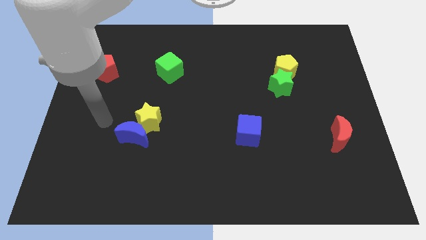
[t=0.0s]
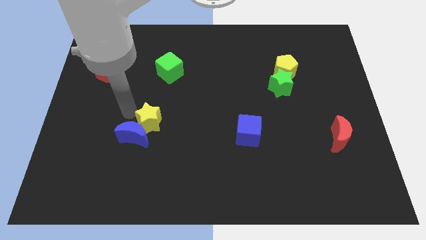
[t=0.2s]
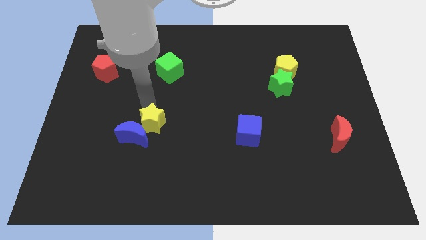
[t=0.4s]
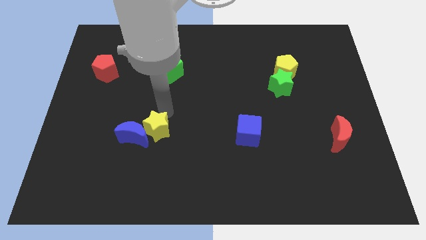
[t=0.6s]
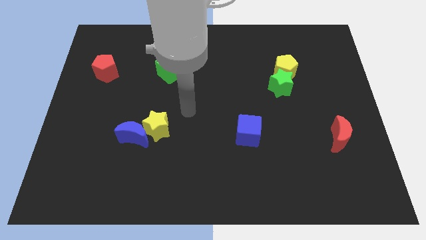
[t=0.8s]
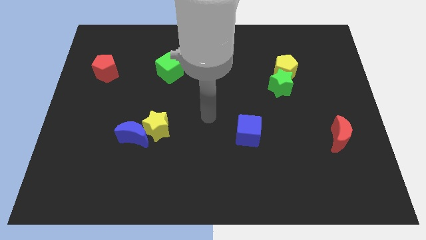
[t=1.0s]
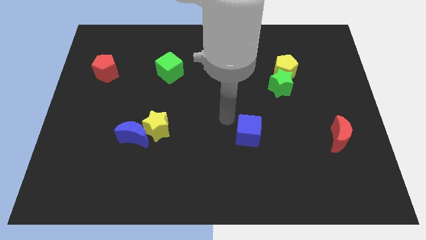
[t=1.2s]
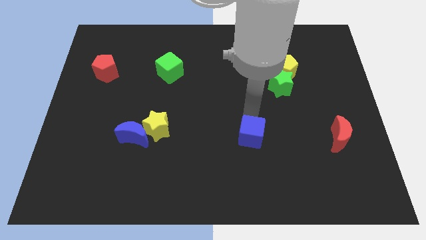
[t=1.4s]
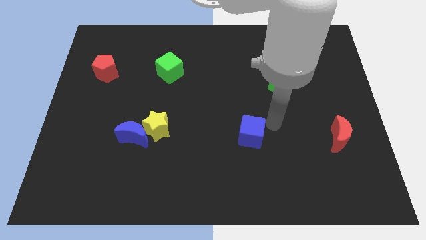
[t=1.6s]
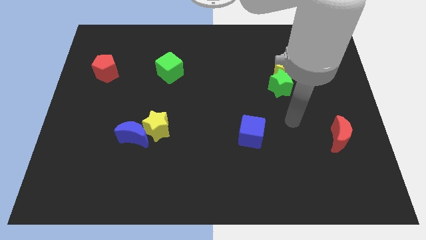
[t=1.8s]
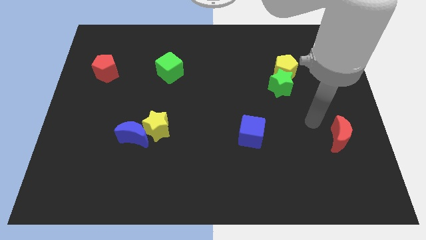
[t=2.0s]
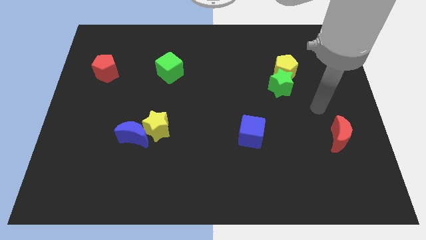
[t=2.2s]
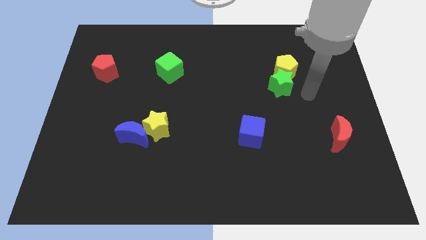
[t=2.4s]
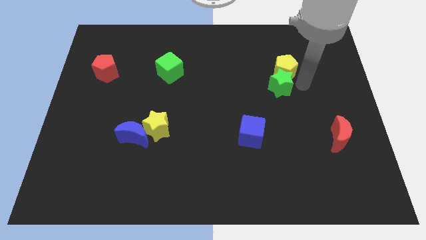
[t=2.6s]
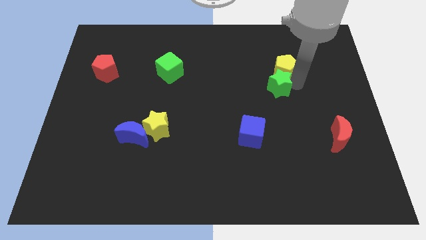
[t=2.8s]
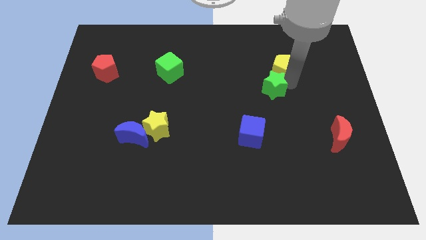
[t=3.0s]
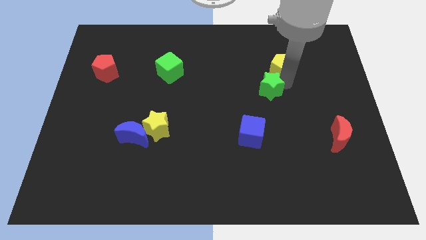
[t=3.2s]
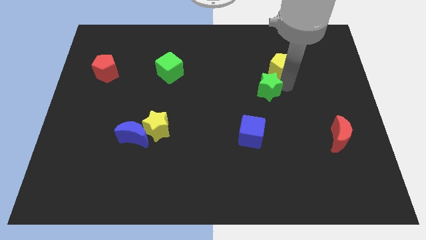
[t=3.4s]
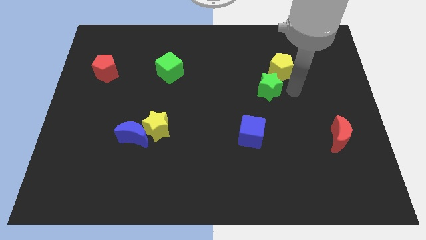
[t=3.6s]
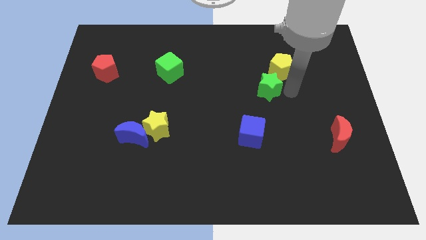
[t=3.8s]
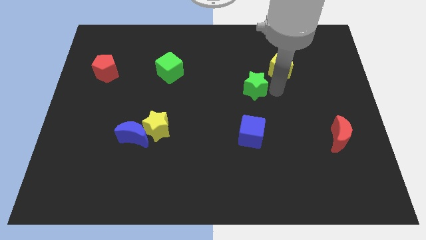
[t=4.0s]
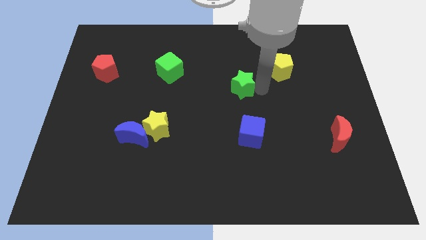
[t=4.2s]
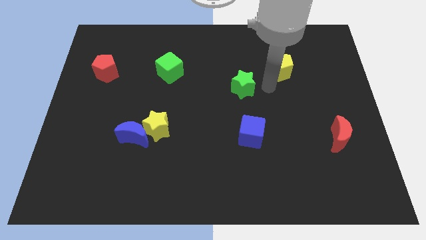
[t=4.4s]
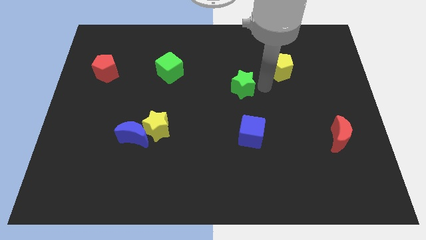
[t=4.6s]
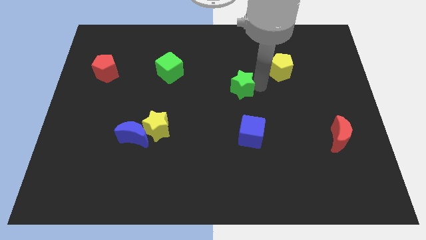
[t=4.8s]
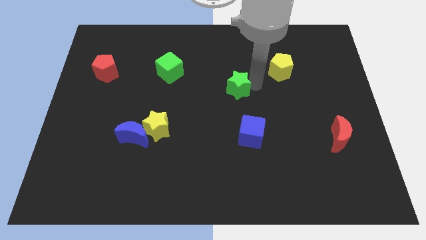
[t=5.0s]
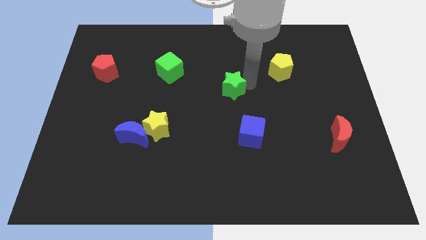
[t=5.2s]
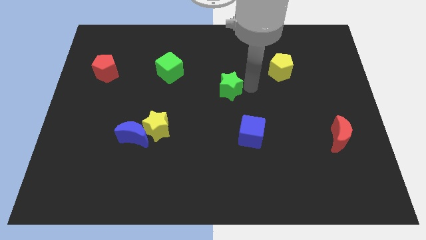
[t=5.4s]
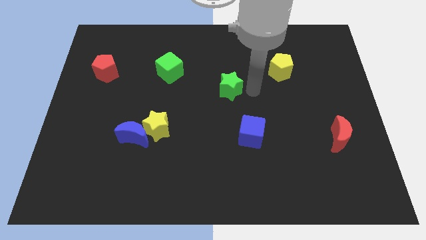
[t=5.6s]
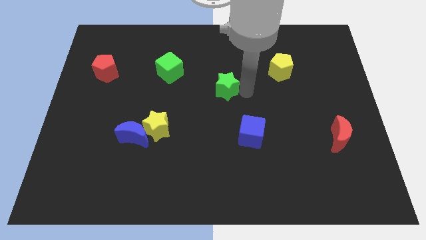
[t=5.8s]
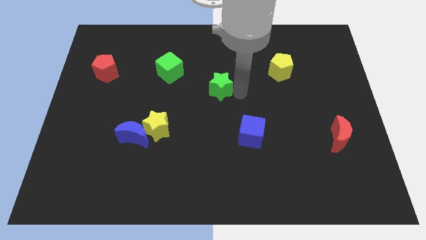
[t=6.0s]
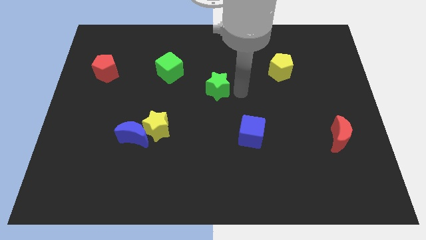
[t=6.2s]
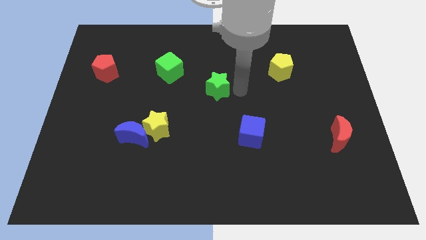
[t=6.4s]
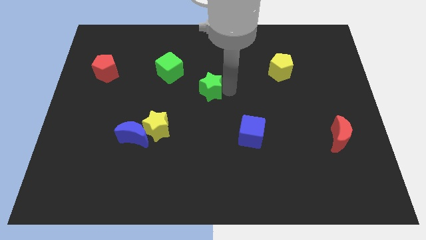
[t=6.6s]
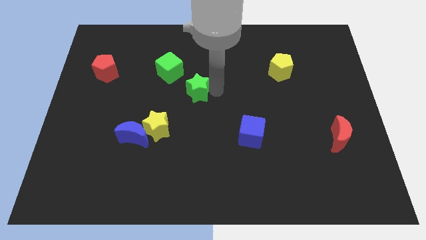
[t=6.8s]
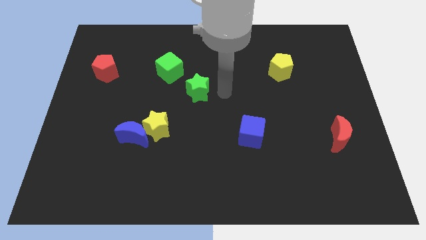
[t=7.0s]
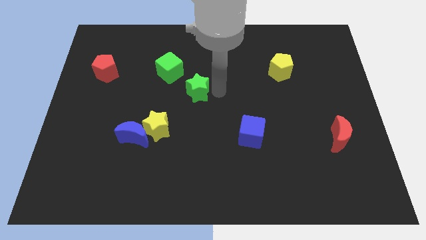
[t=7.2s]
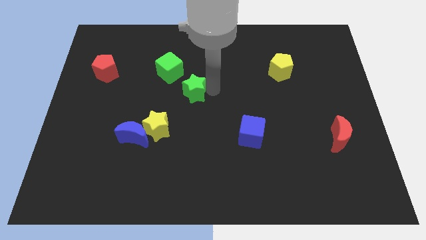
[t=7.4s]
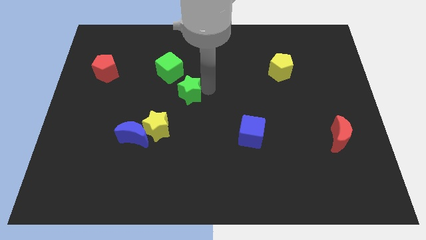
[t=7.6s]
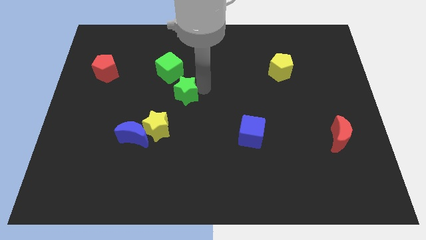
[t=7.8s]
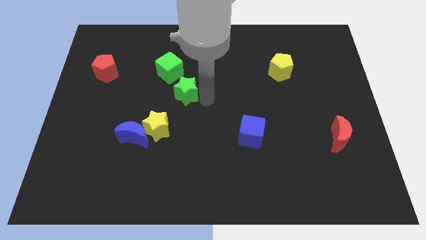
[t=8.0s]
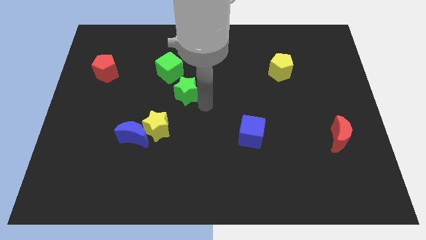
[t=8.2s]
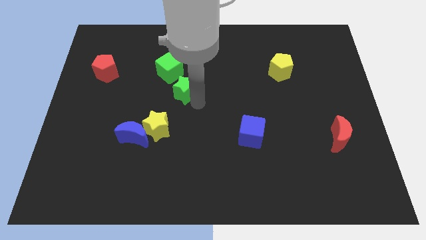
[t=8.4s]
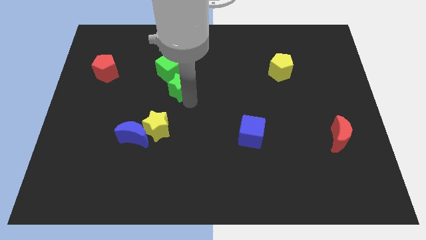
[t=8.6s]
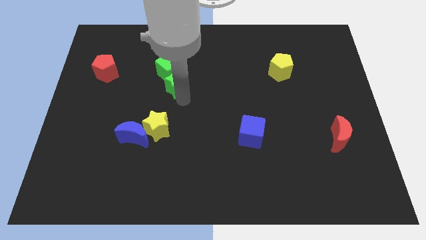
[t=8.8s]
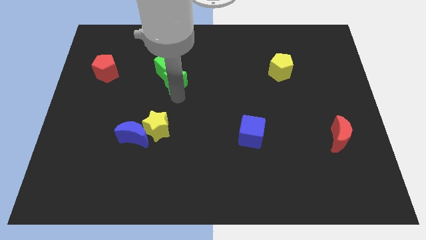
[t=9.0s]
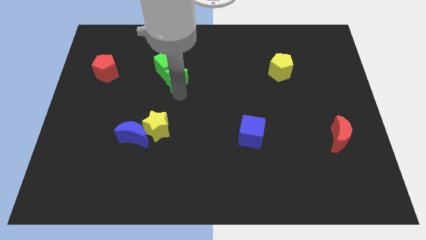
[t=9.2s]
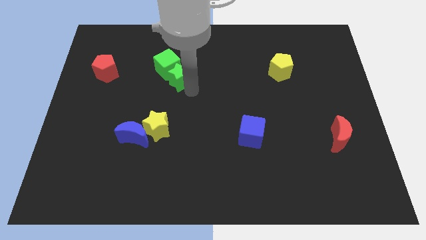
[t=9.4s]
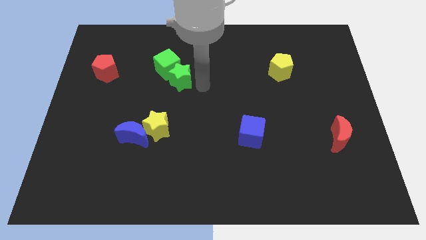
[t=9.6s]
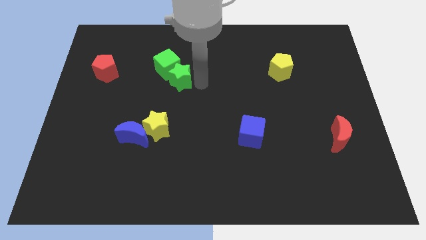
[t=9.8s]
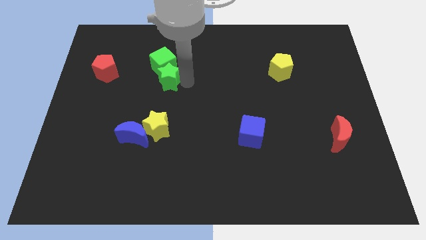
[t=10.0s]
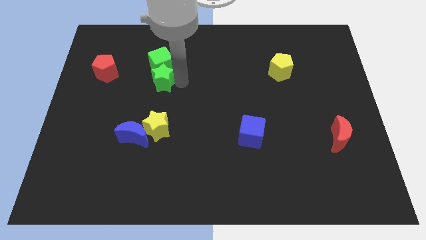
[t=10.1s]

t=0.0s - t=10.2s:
push the green star to the right side of the red pentagon

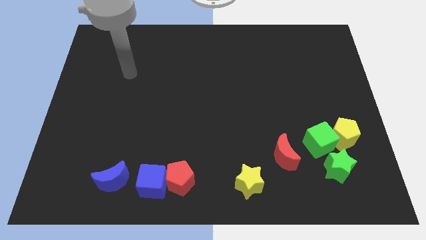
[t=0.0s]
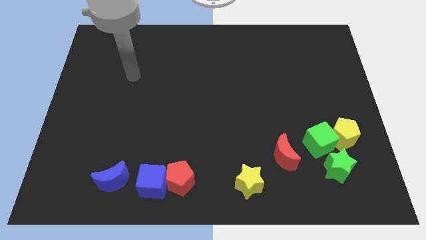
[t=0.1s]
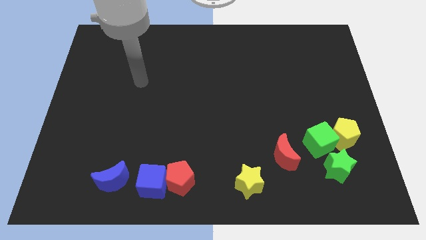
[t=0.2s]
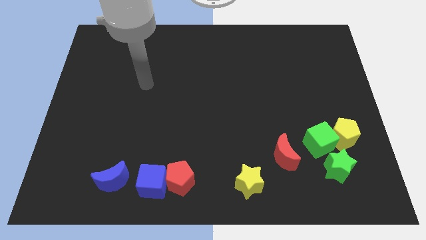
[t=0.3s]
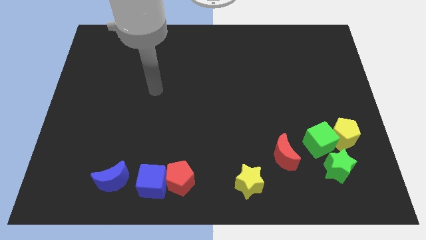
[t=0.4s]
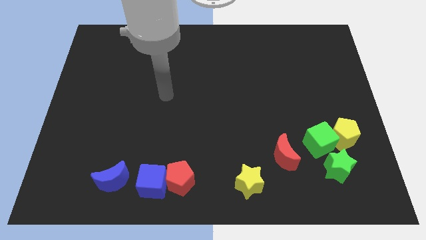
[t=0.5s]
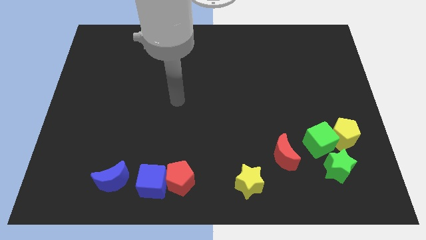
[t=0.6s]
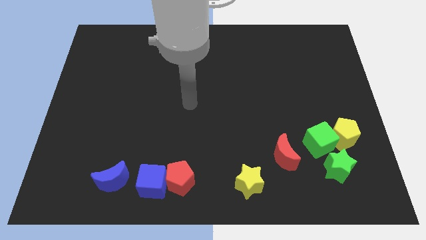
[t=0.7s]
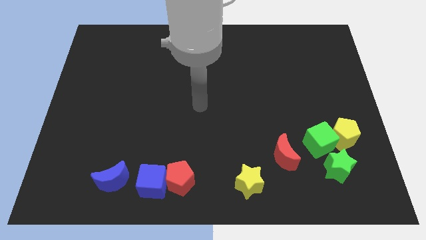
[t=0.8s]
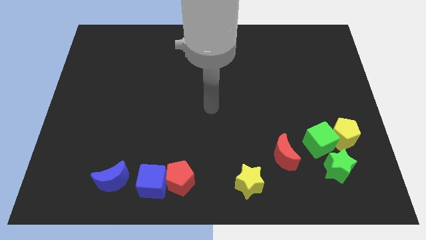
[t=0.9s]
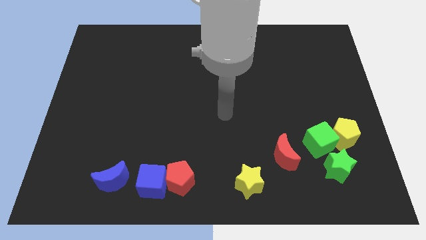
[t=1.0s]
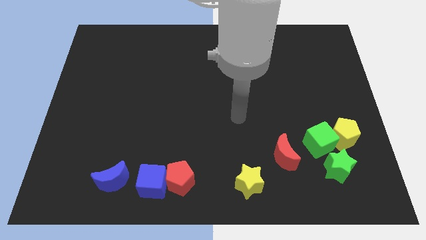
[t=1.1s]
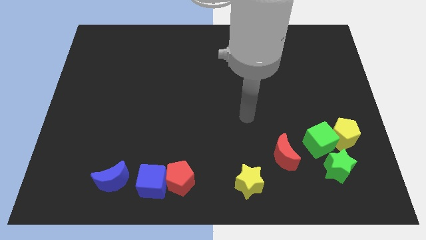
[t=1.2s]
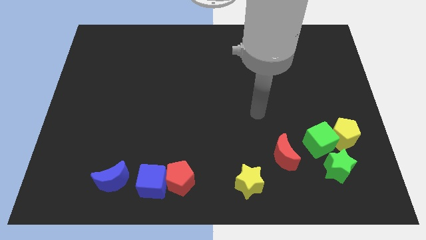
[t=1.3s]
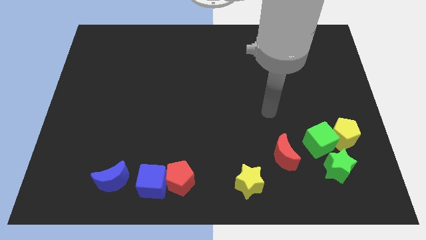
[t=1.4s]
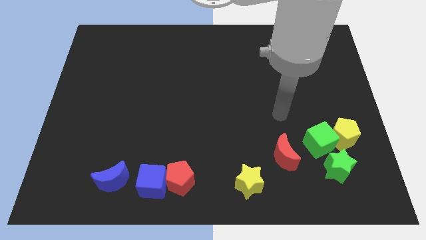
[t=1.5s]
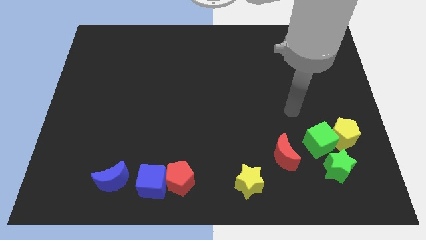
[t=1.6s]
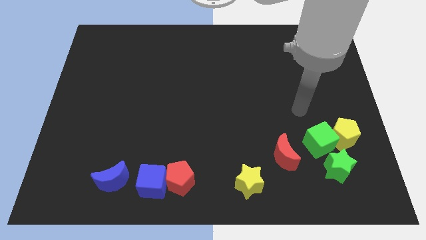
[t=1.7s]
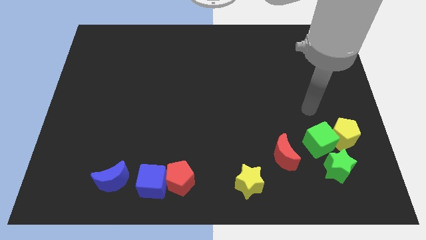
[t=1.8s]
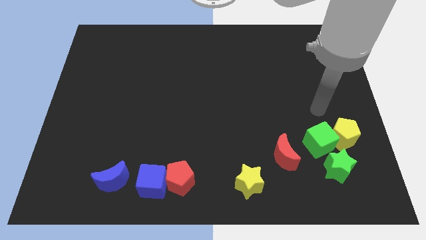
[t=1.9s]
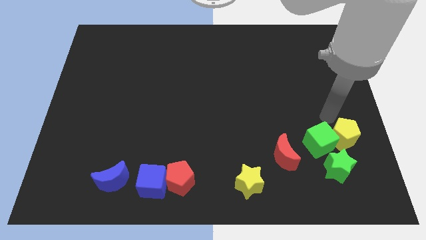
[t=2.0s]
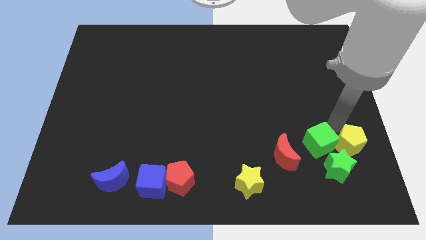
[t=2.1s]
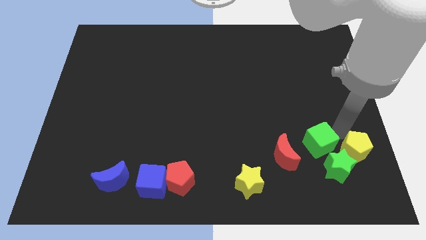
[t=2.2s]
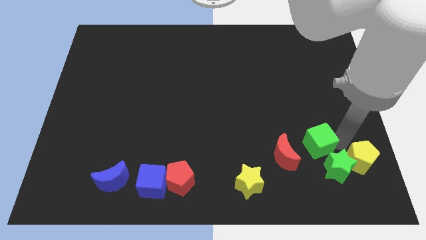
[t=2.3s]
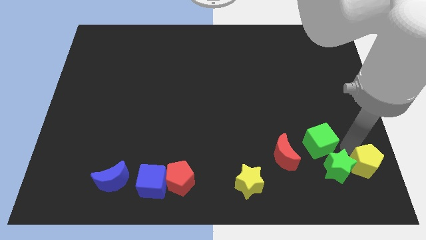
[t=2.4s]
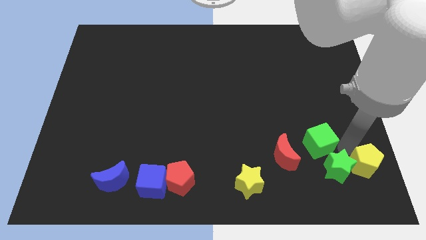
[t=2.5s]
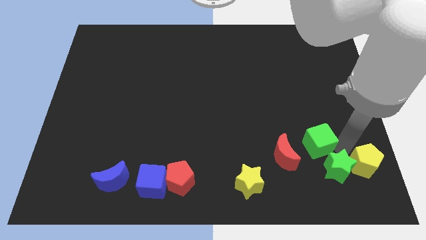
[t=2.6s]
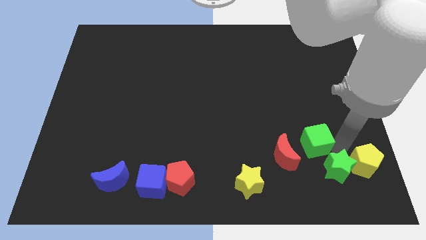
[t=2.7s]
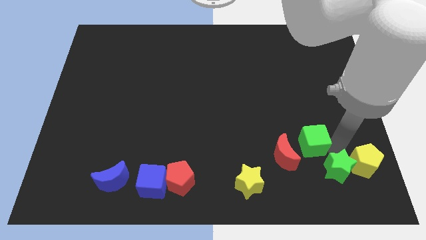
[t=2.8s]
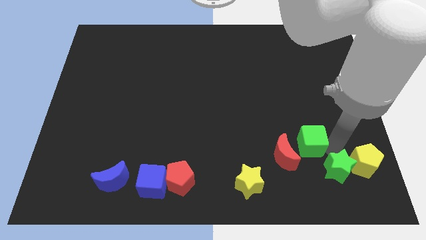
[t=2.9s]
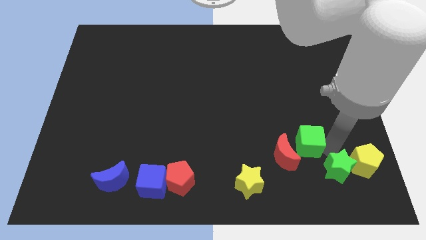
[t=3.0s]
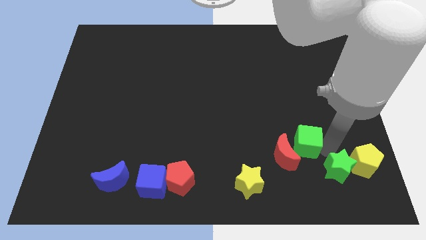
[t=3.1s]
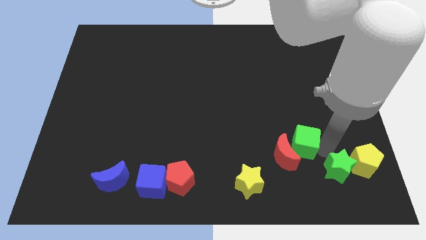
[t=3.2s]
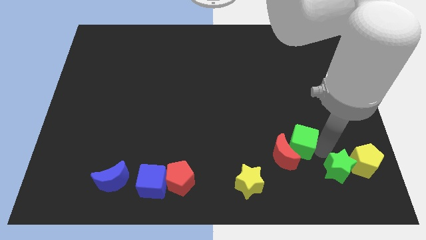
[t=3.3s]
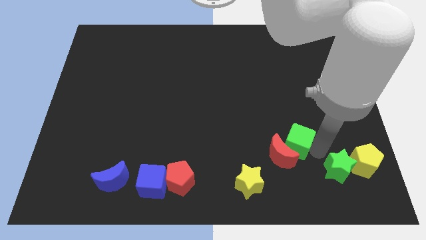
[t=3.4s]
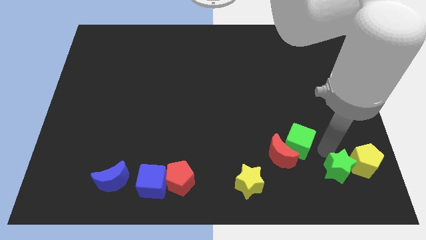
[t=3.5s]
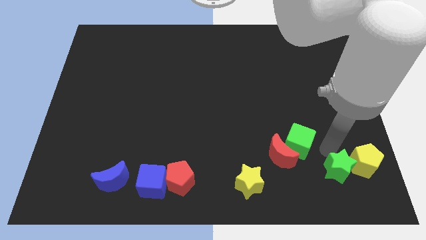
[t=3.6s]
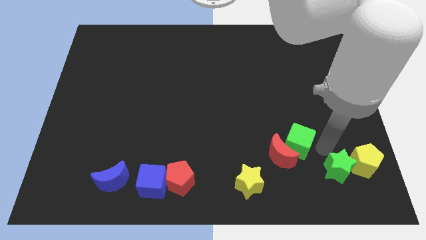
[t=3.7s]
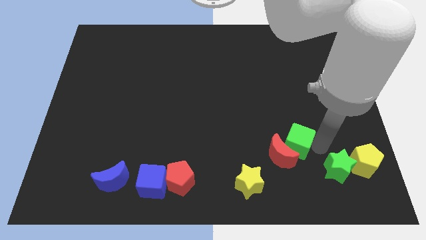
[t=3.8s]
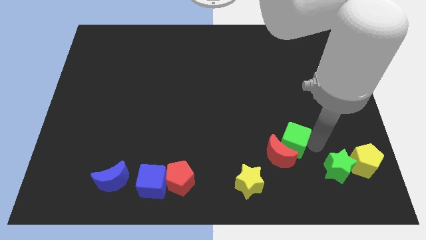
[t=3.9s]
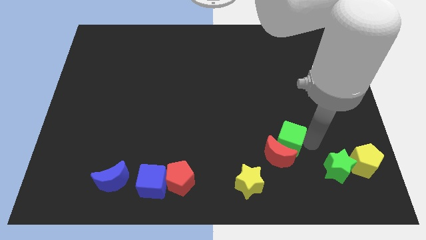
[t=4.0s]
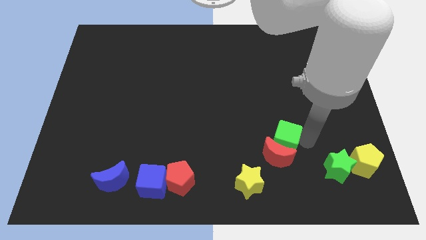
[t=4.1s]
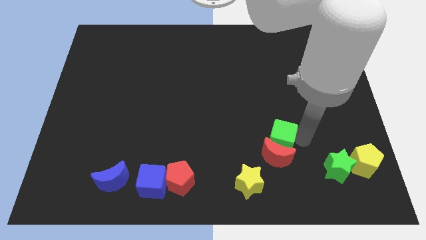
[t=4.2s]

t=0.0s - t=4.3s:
slide the green cube to the top left side of the red moon
